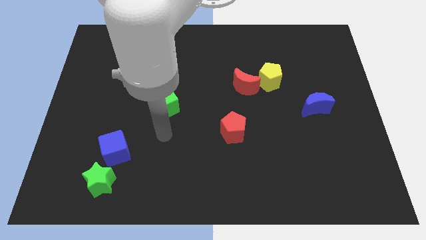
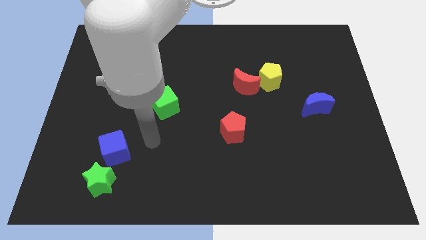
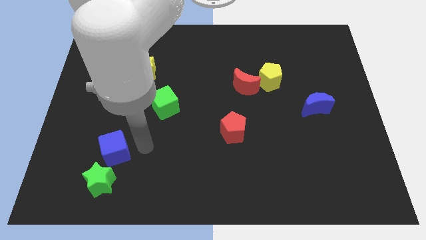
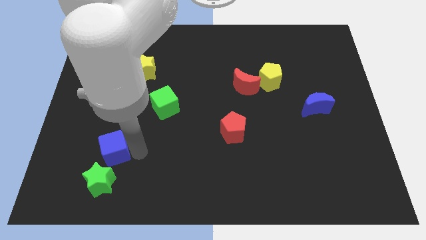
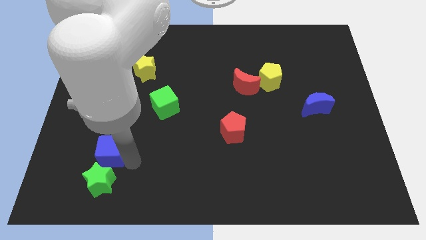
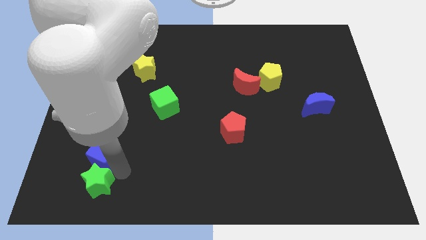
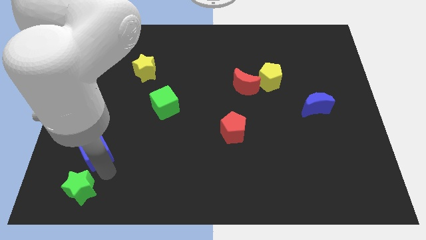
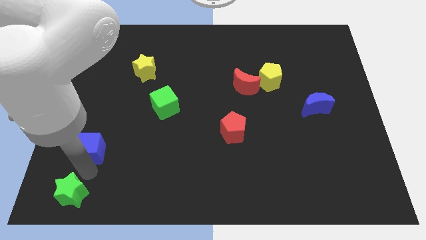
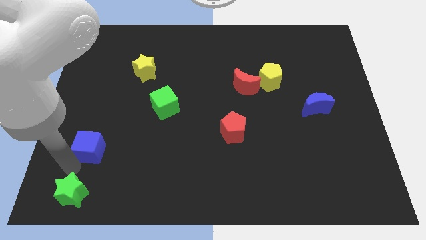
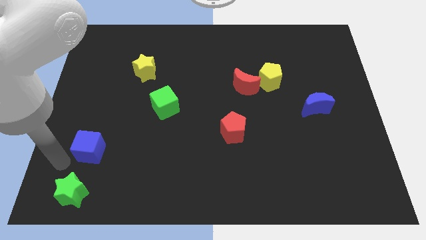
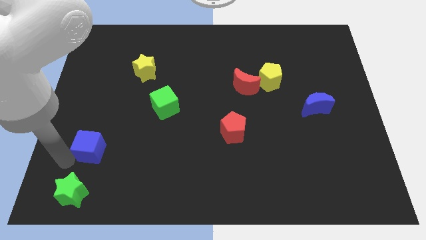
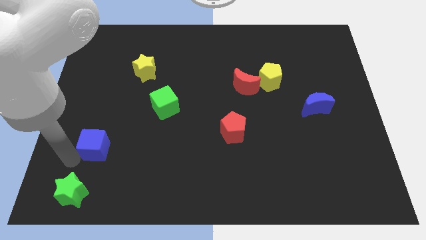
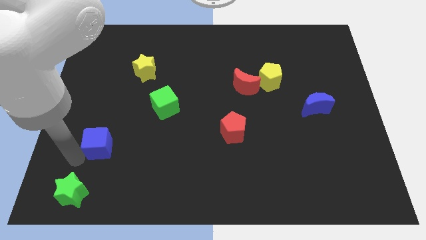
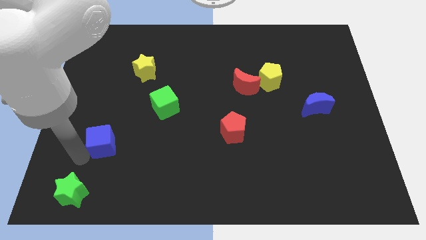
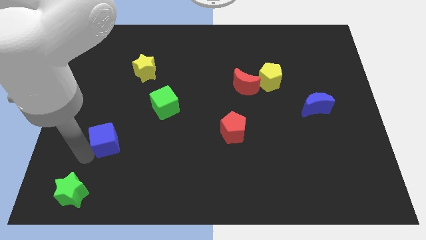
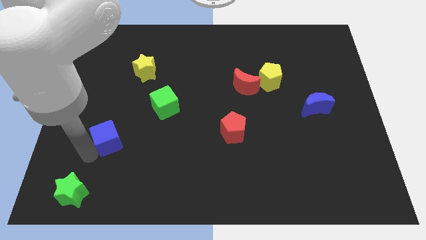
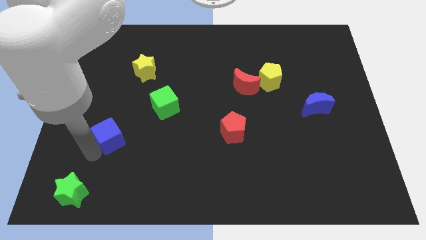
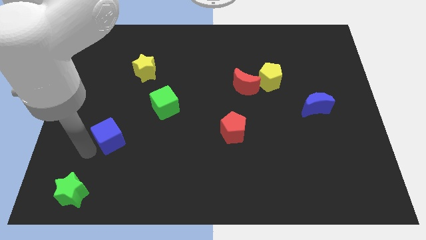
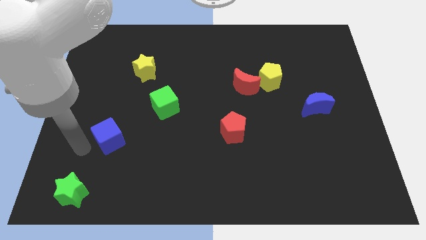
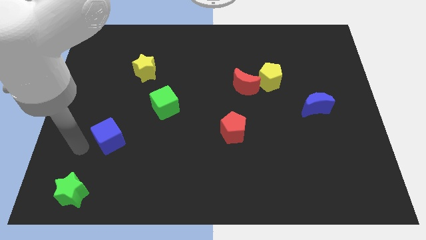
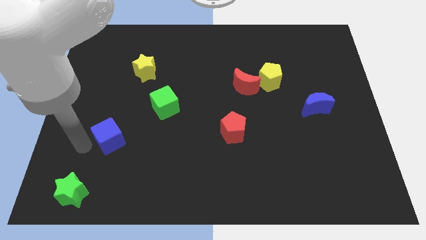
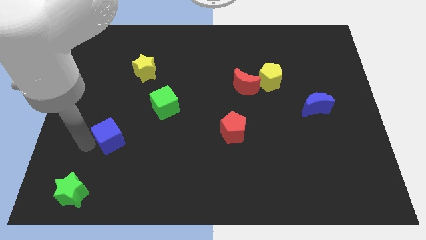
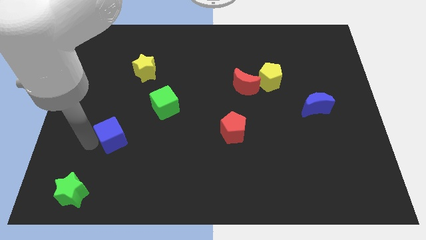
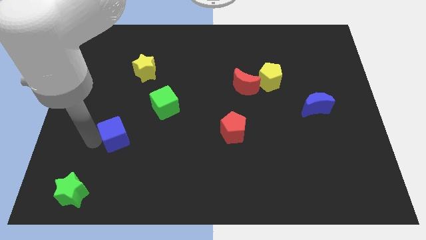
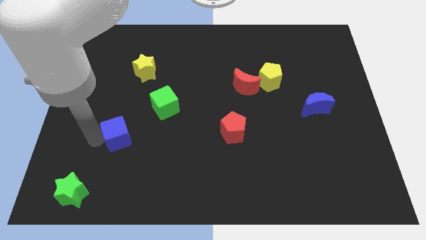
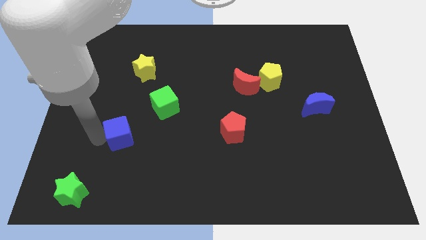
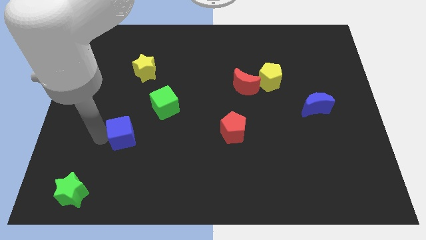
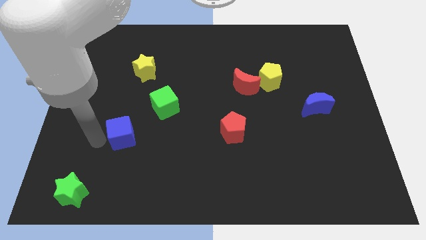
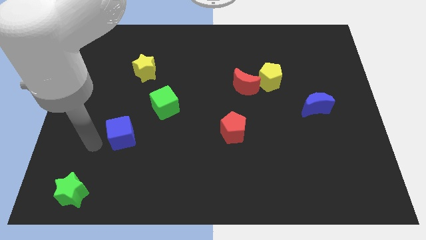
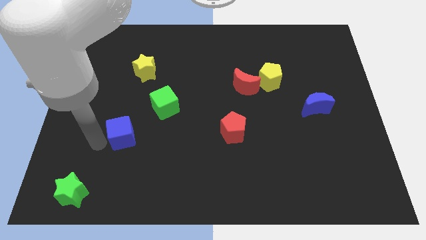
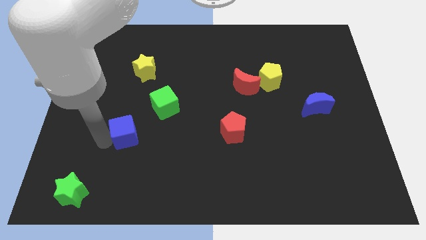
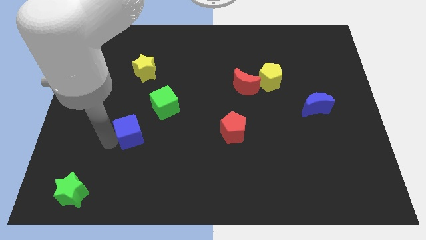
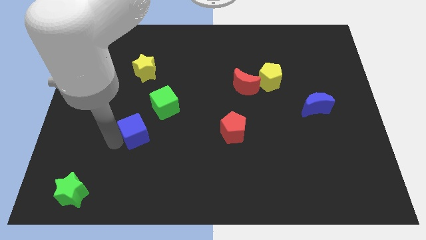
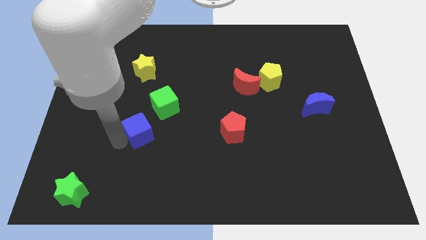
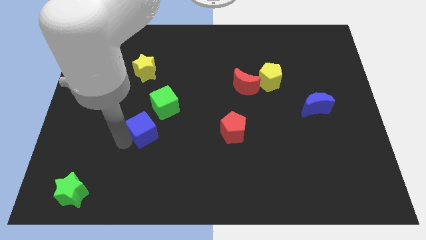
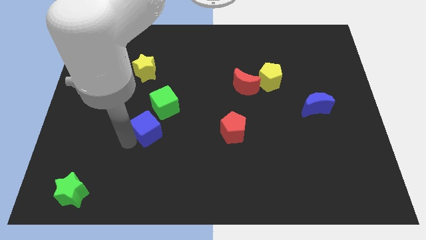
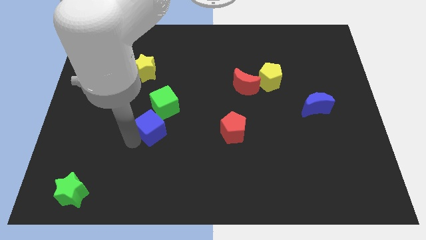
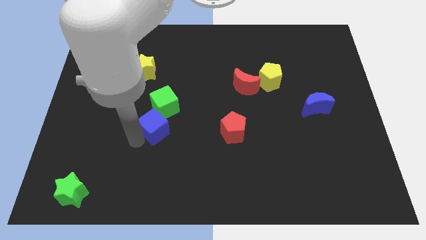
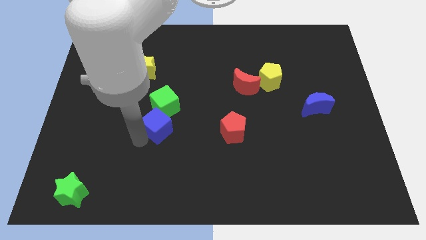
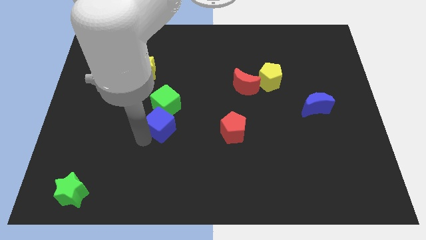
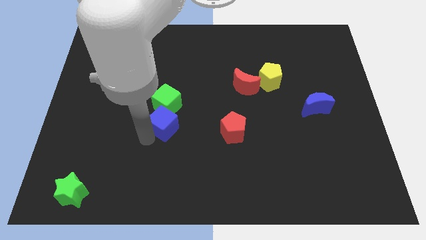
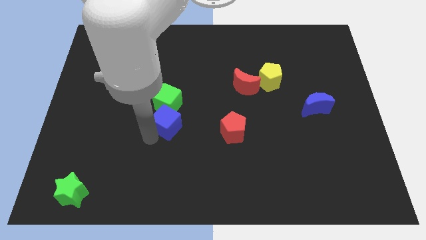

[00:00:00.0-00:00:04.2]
slide the blue cube to the green cube

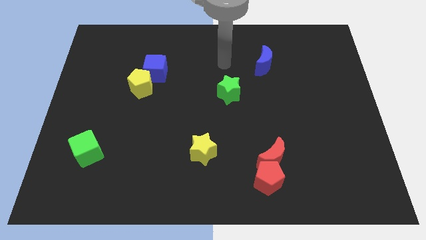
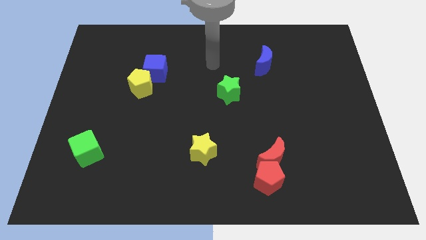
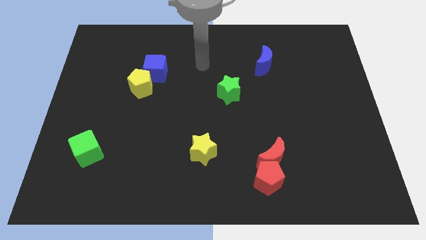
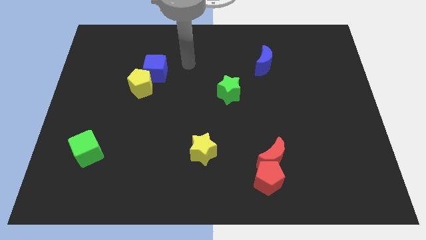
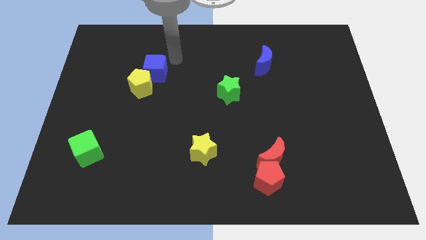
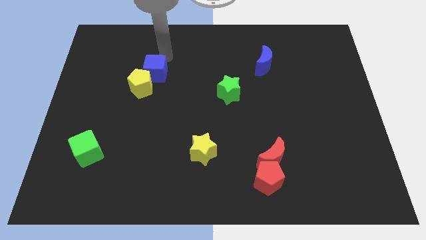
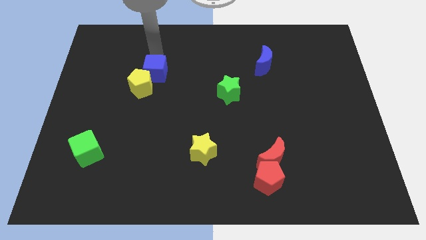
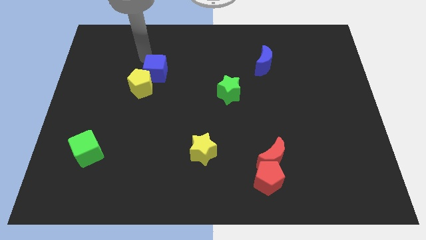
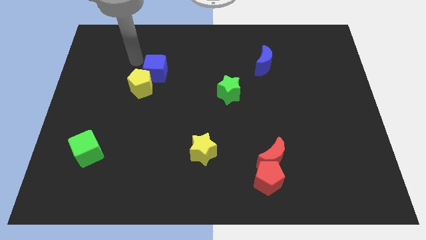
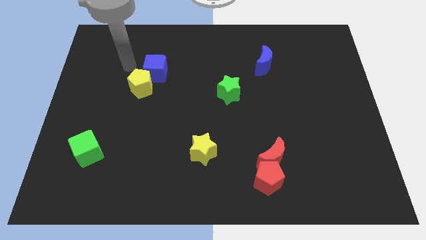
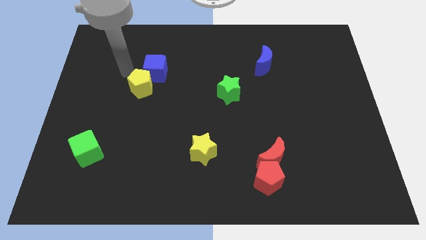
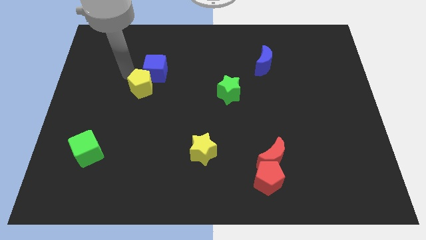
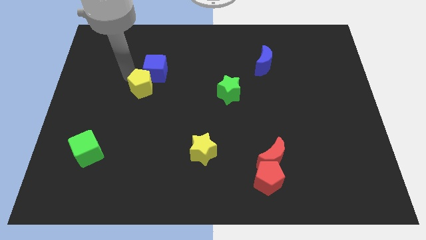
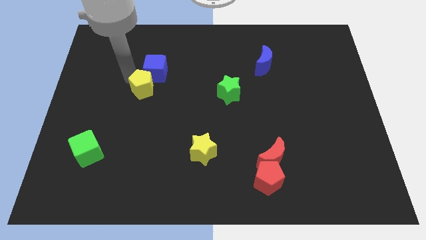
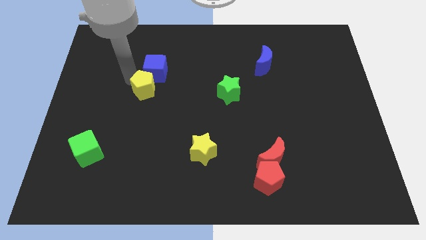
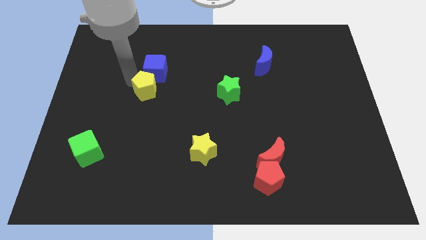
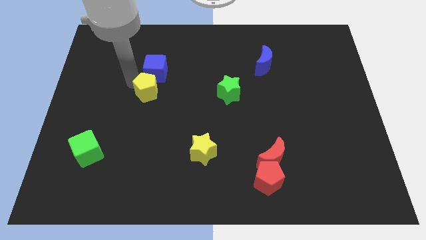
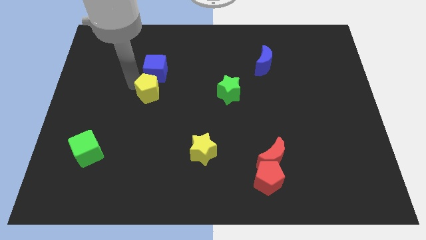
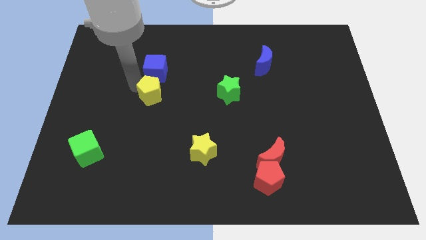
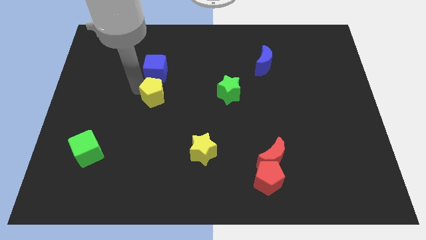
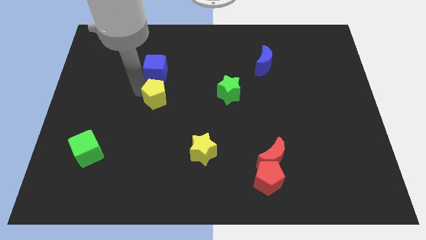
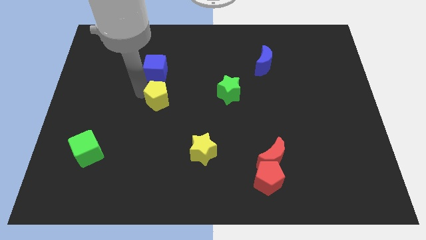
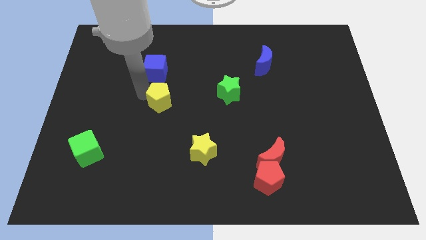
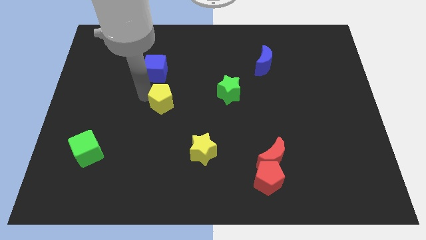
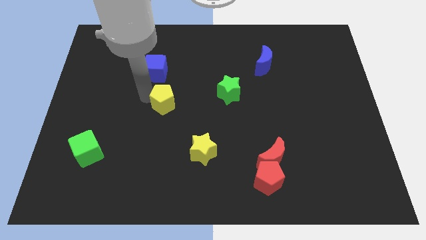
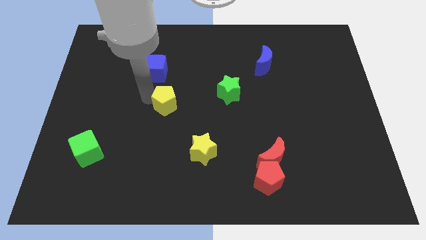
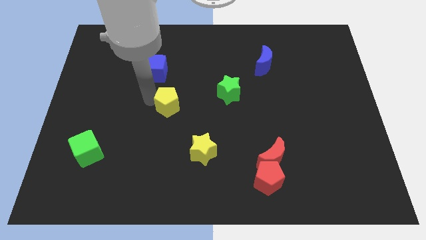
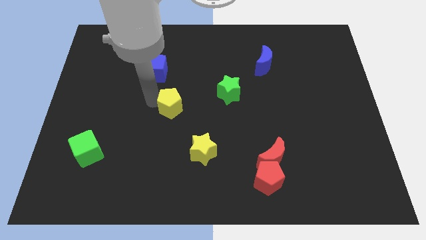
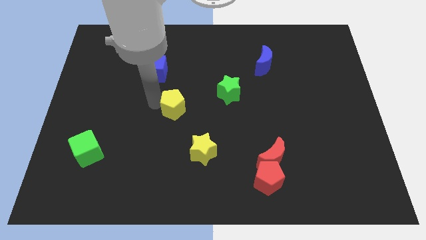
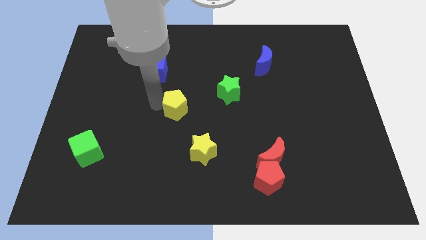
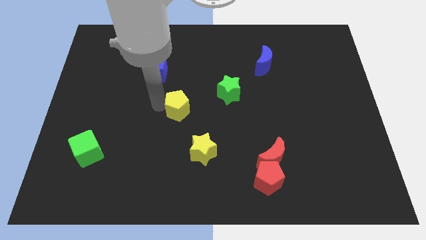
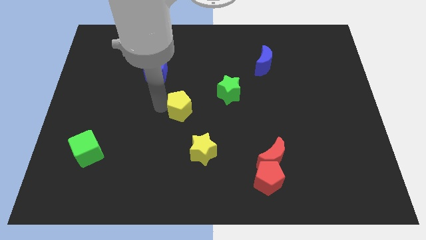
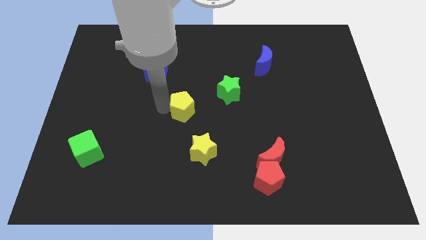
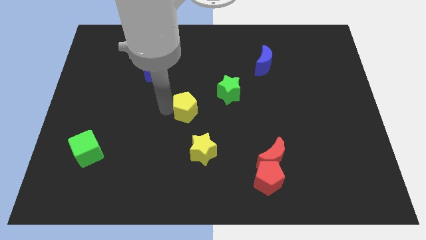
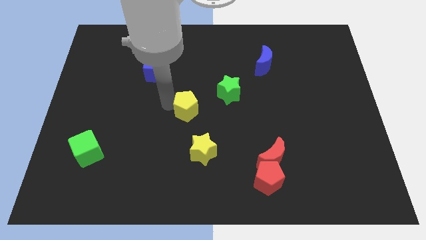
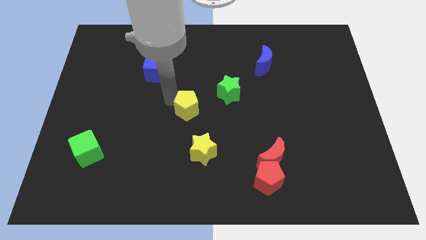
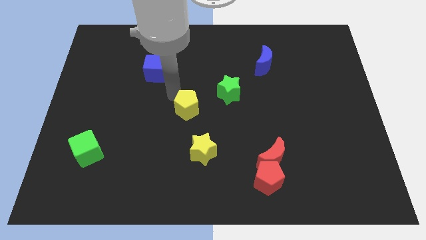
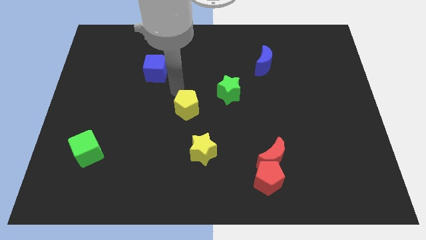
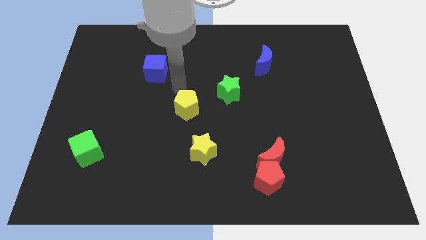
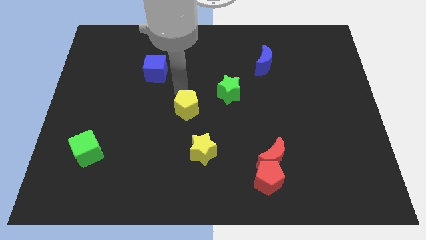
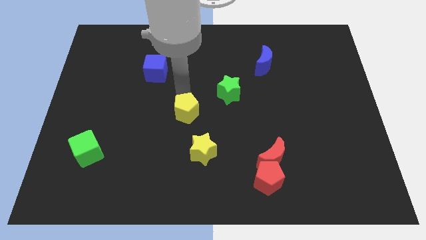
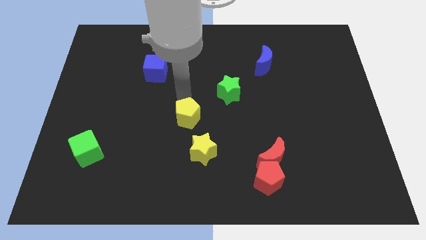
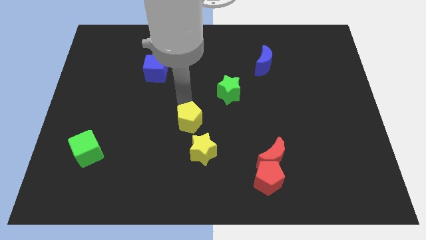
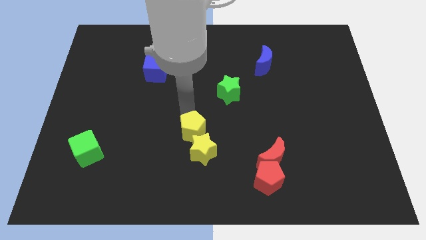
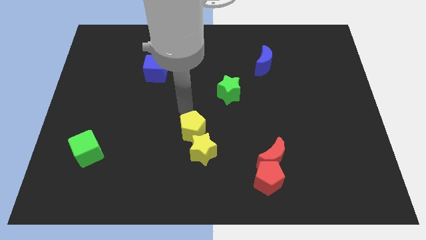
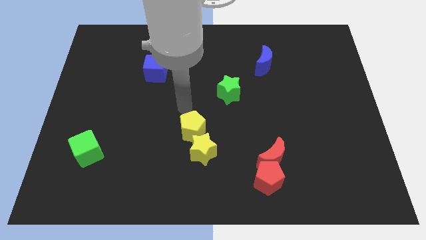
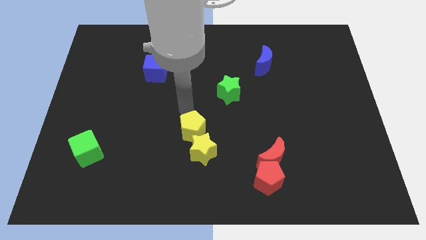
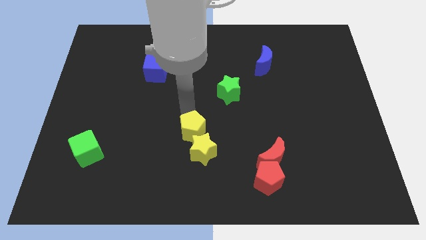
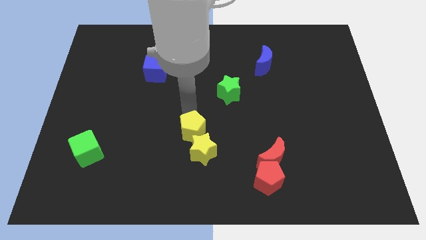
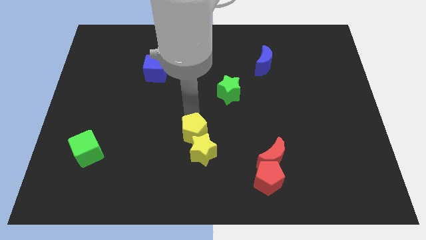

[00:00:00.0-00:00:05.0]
push the yellow pentagon next to the yellow star
